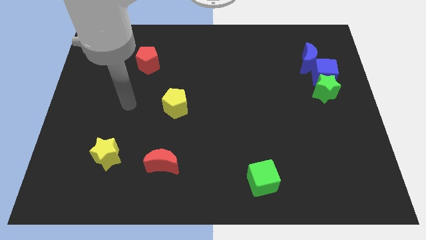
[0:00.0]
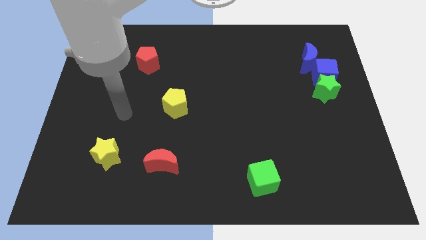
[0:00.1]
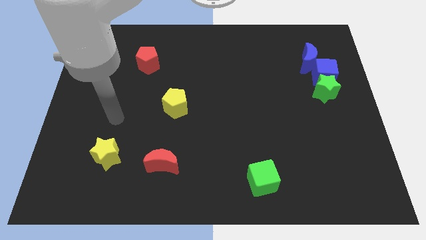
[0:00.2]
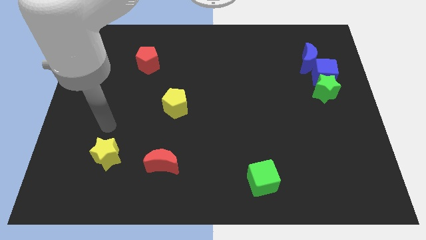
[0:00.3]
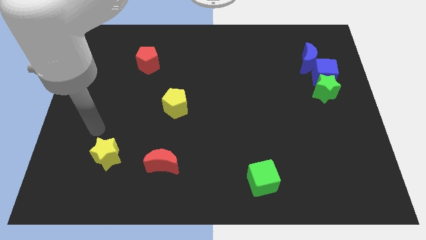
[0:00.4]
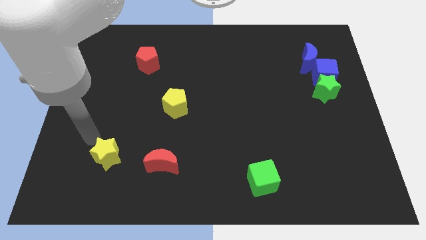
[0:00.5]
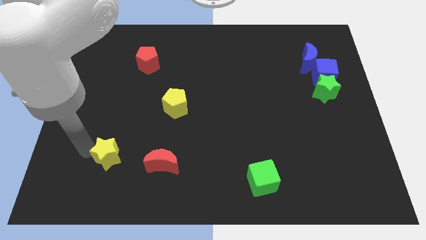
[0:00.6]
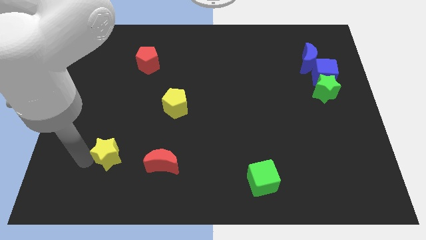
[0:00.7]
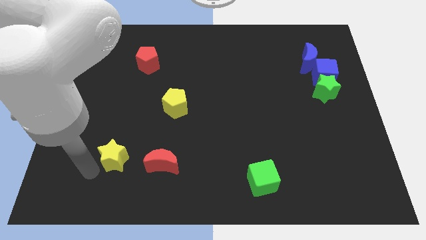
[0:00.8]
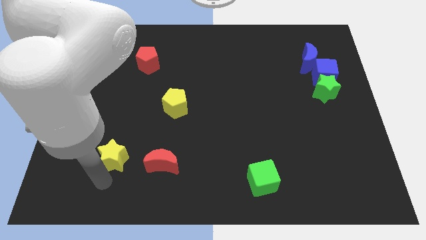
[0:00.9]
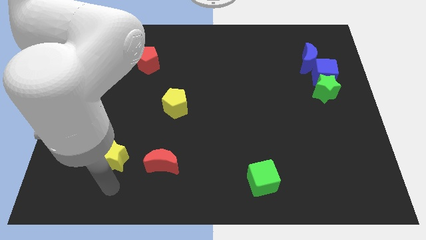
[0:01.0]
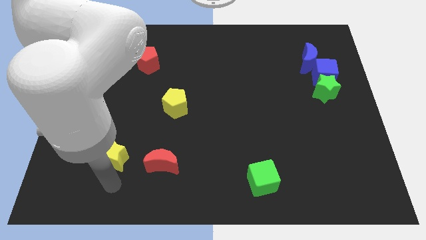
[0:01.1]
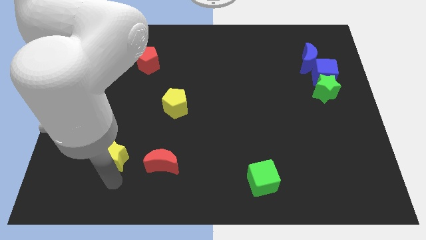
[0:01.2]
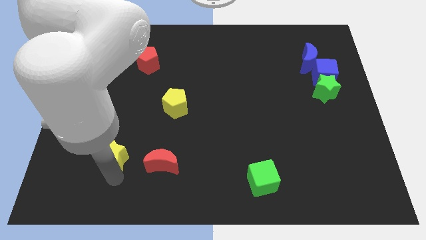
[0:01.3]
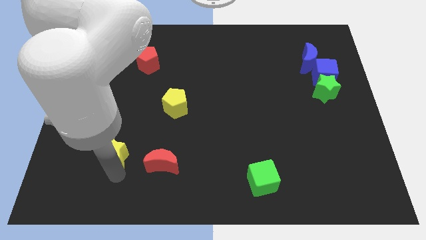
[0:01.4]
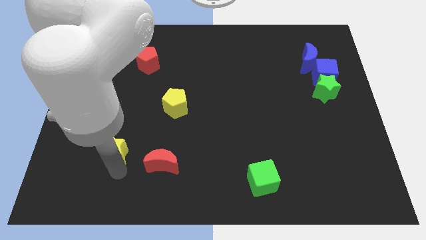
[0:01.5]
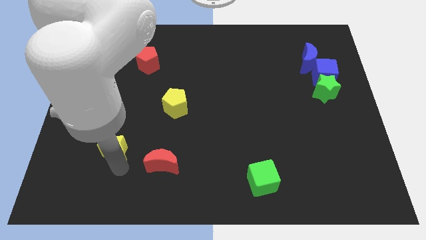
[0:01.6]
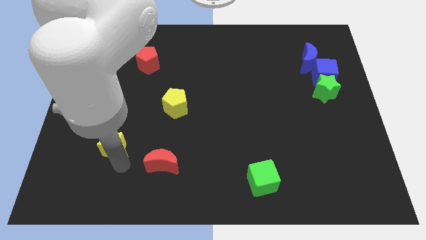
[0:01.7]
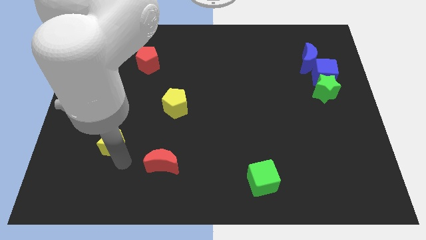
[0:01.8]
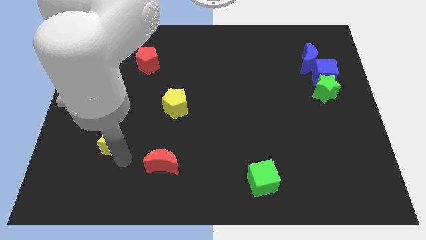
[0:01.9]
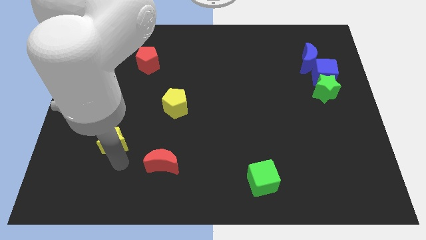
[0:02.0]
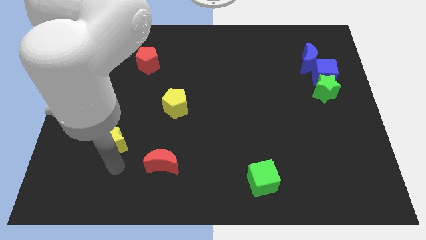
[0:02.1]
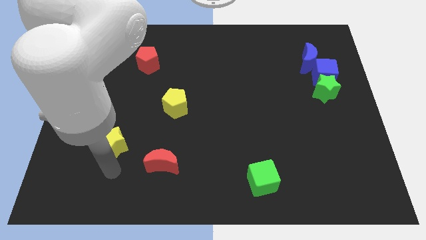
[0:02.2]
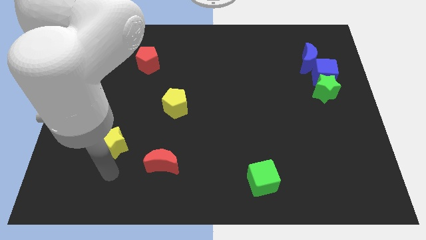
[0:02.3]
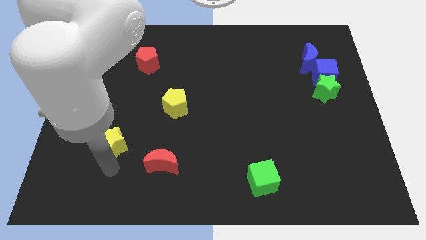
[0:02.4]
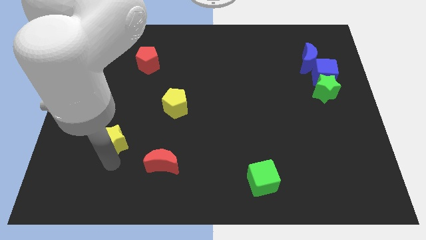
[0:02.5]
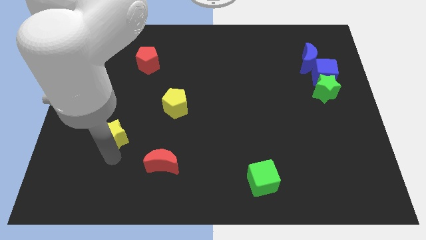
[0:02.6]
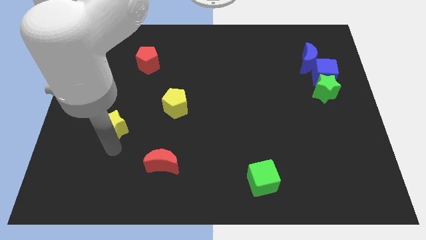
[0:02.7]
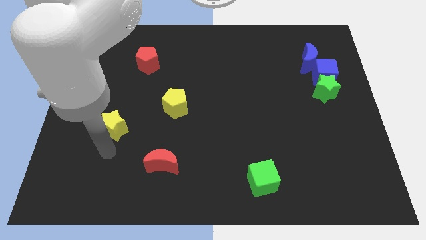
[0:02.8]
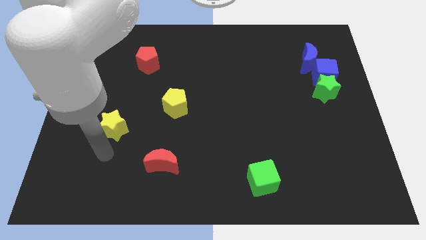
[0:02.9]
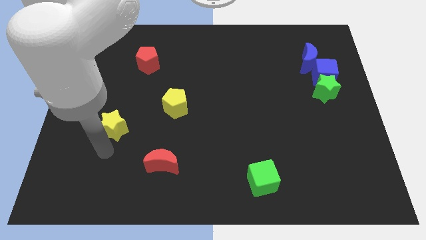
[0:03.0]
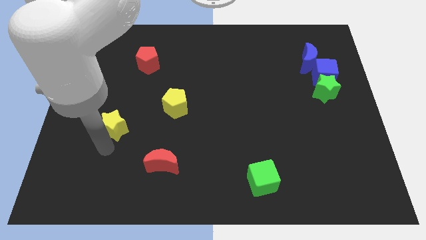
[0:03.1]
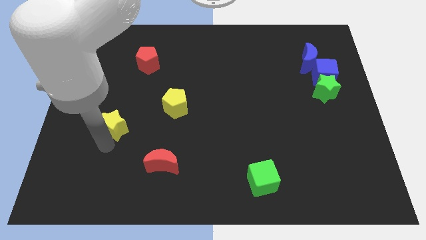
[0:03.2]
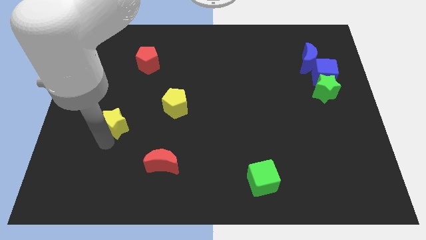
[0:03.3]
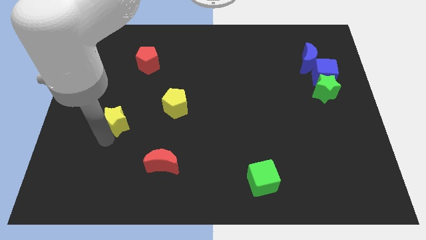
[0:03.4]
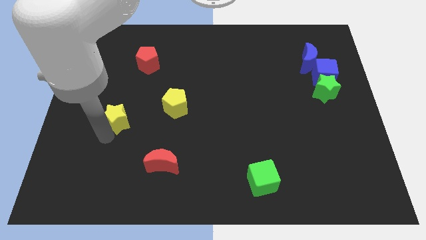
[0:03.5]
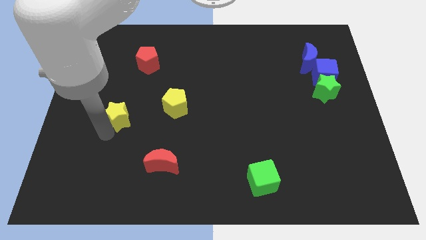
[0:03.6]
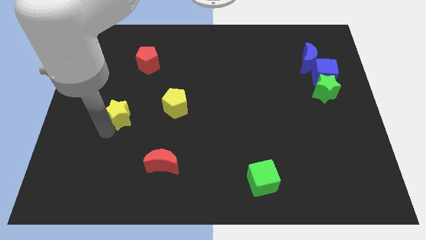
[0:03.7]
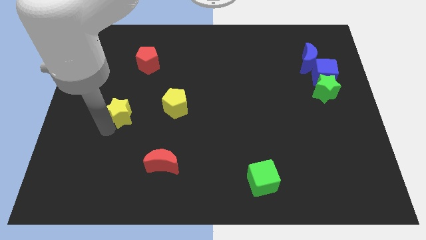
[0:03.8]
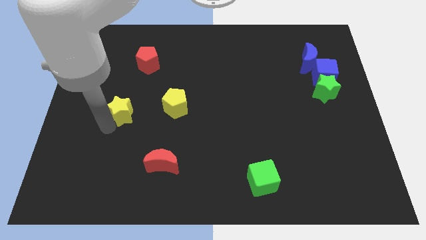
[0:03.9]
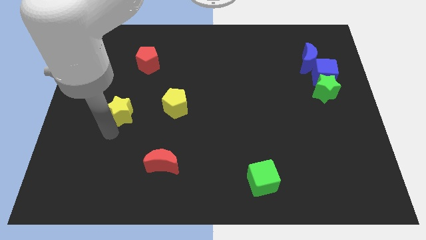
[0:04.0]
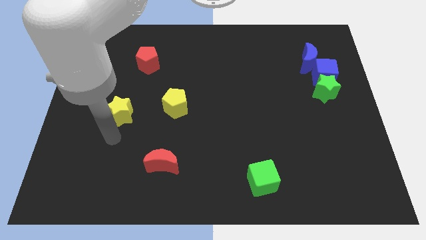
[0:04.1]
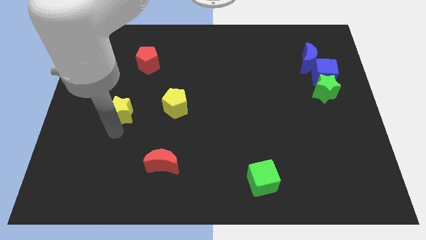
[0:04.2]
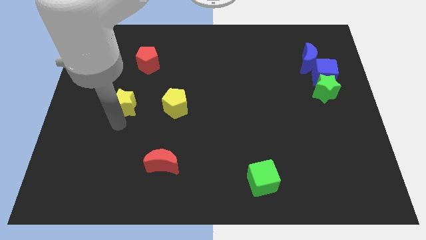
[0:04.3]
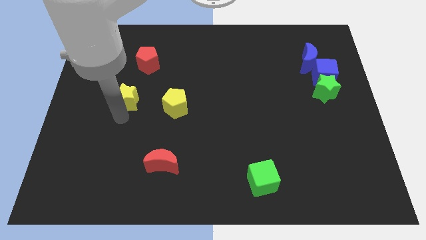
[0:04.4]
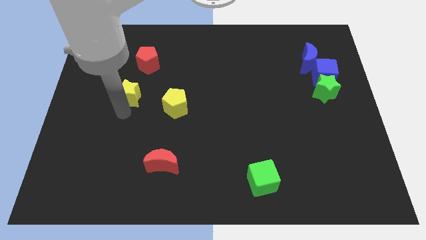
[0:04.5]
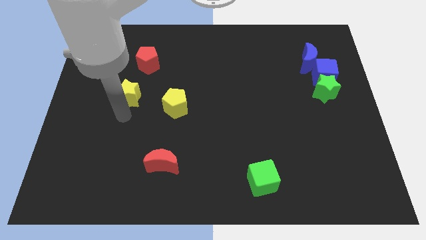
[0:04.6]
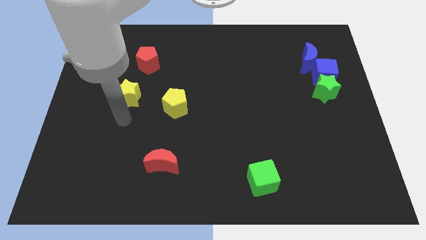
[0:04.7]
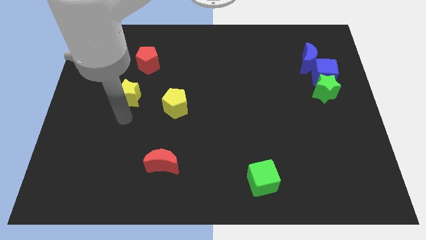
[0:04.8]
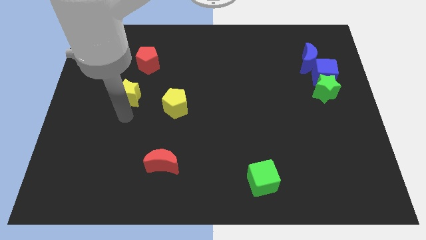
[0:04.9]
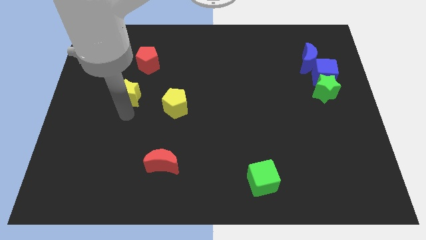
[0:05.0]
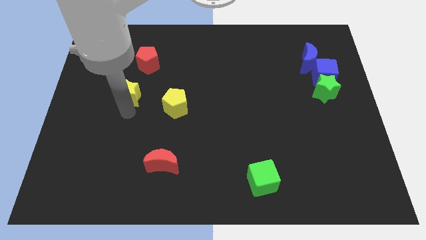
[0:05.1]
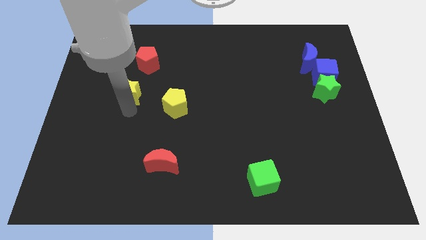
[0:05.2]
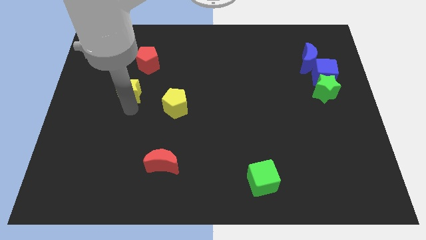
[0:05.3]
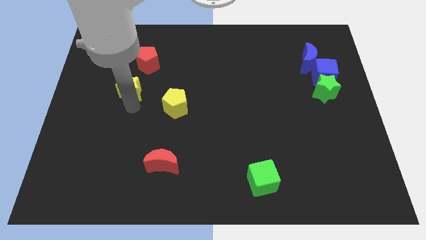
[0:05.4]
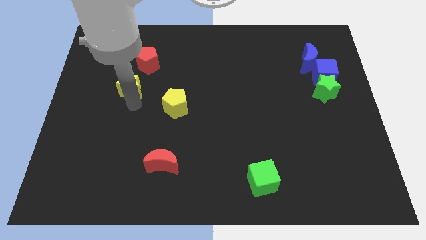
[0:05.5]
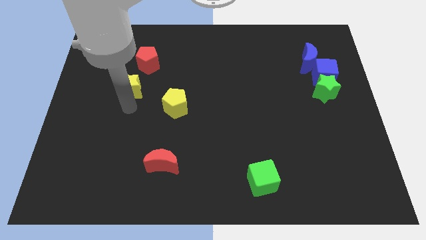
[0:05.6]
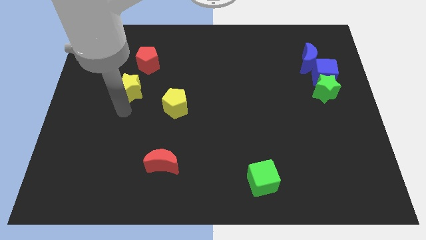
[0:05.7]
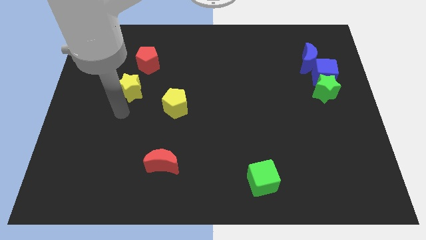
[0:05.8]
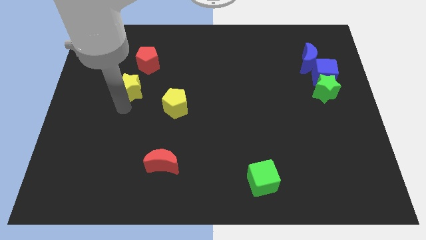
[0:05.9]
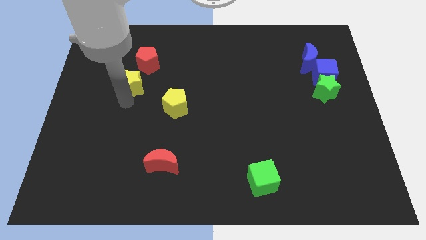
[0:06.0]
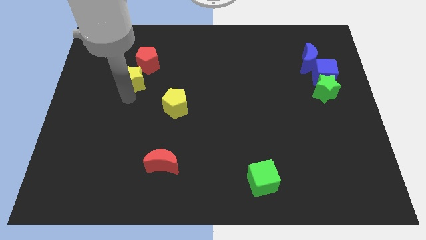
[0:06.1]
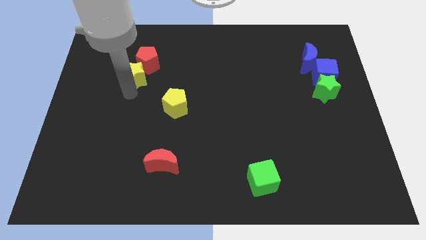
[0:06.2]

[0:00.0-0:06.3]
put the yellow star towards the red pentagon

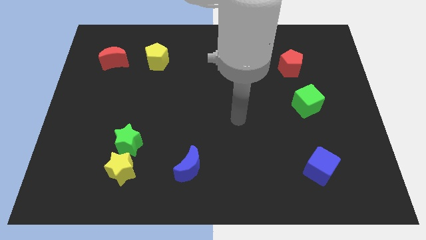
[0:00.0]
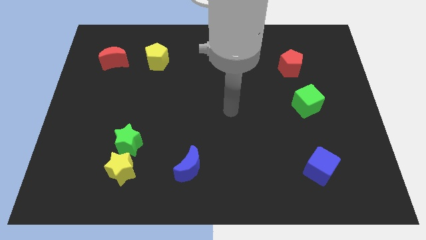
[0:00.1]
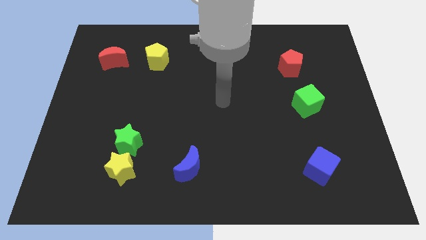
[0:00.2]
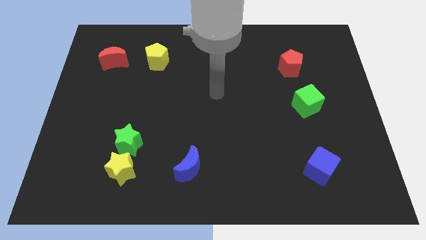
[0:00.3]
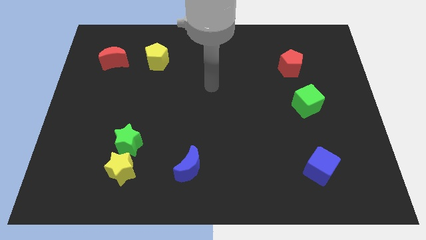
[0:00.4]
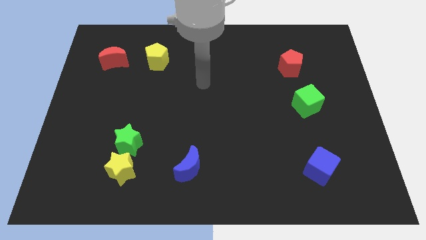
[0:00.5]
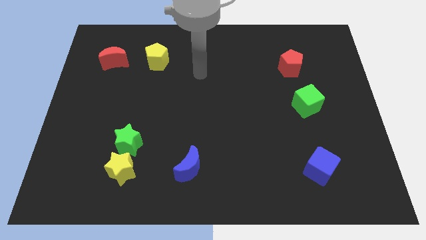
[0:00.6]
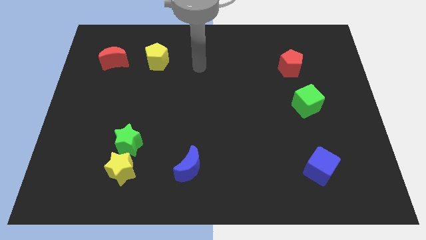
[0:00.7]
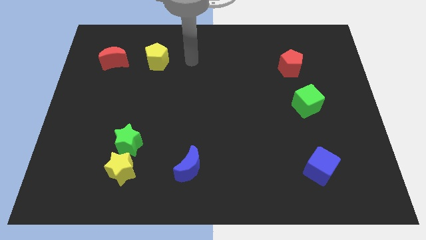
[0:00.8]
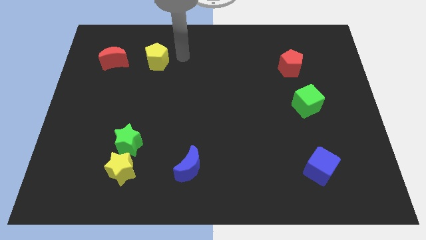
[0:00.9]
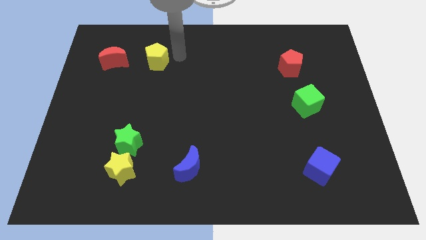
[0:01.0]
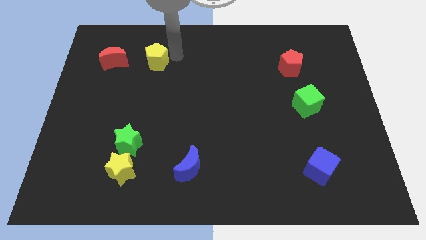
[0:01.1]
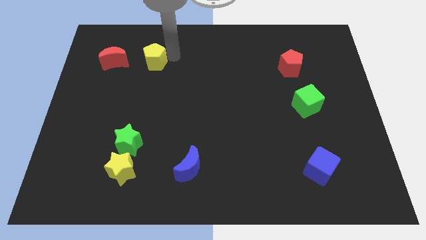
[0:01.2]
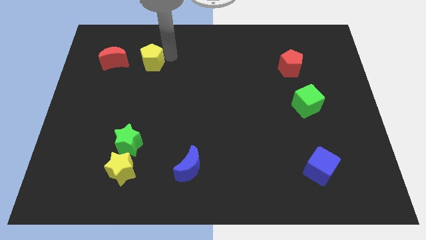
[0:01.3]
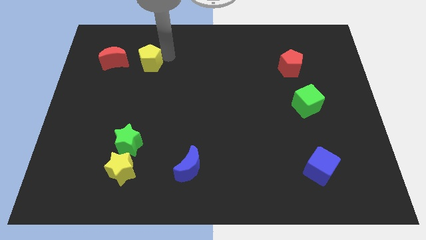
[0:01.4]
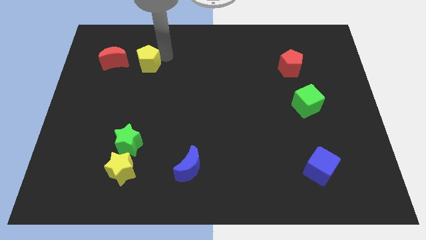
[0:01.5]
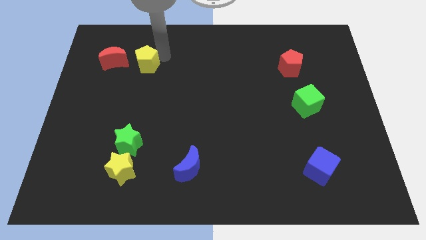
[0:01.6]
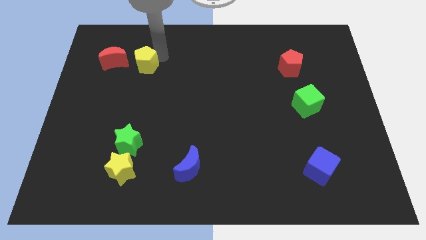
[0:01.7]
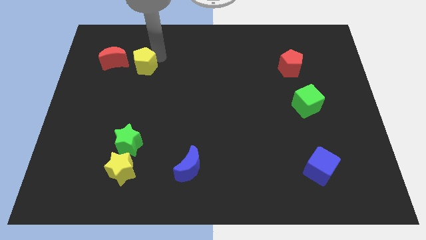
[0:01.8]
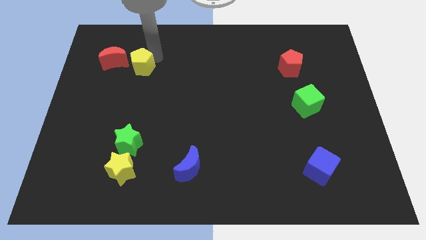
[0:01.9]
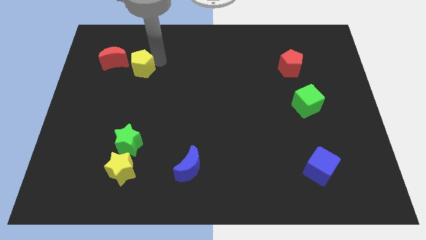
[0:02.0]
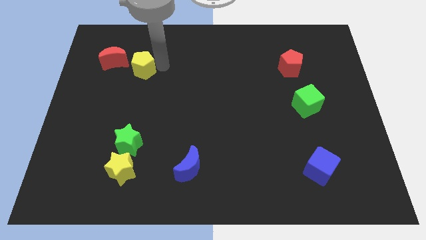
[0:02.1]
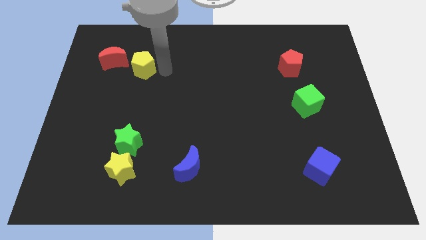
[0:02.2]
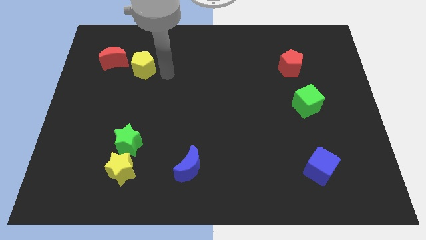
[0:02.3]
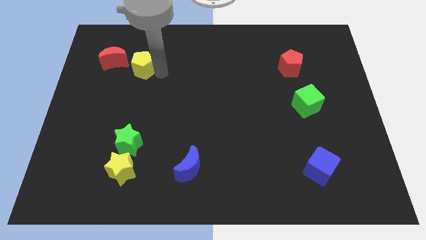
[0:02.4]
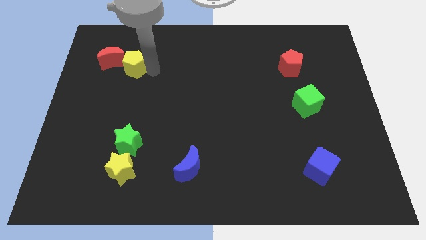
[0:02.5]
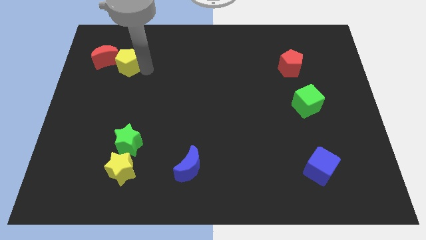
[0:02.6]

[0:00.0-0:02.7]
slide the yellow pentagon next to the red moon
